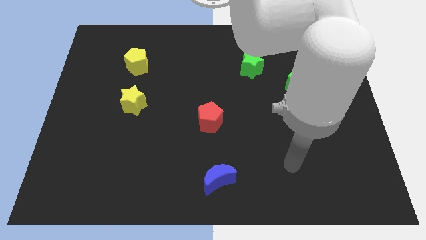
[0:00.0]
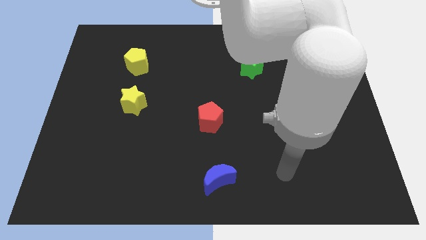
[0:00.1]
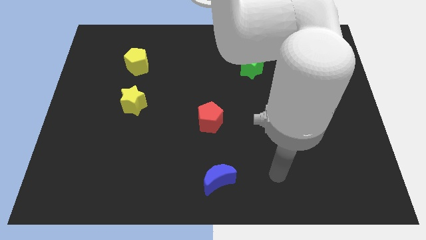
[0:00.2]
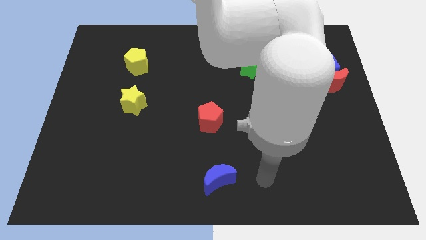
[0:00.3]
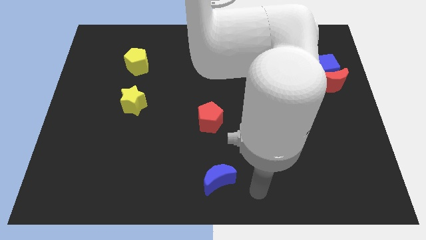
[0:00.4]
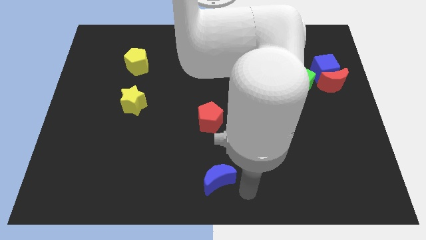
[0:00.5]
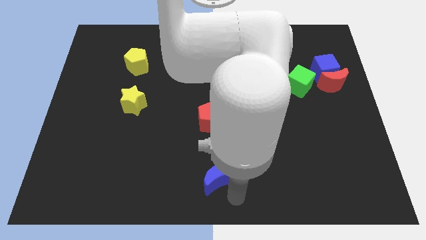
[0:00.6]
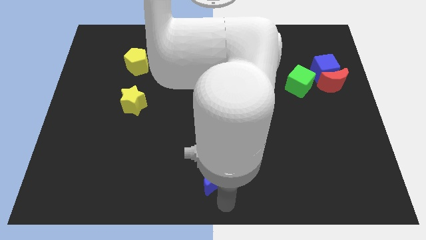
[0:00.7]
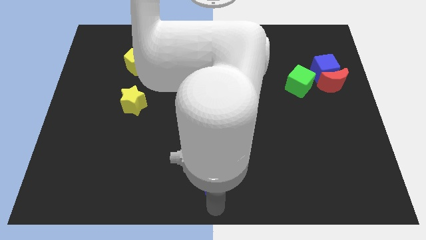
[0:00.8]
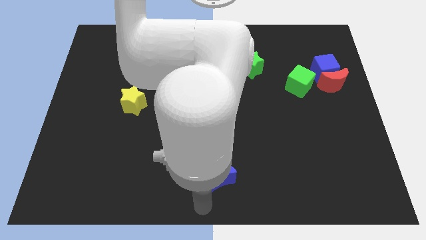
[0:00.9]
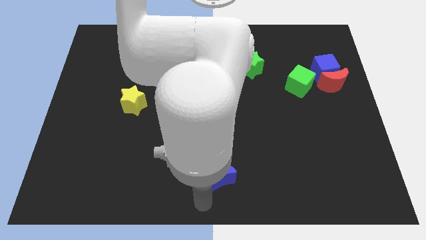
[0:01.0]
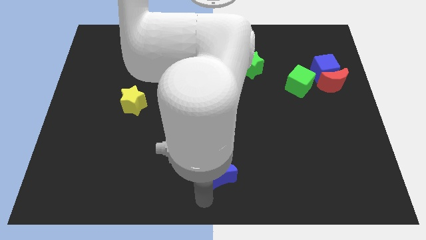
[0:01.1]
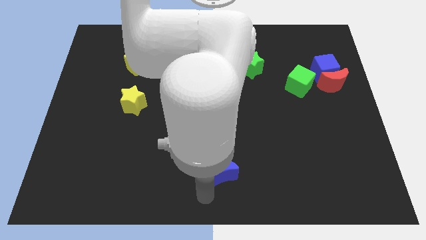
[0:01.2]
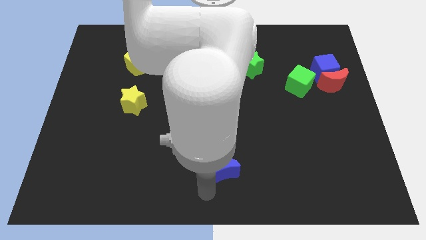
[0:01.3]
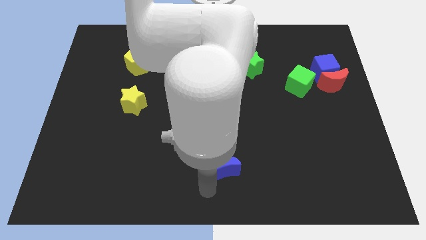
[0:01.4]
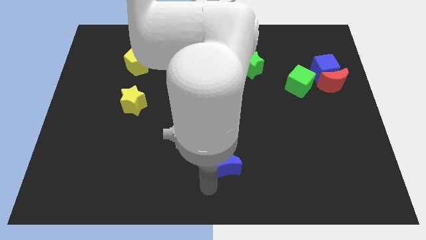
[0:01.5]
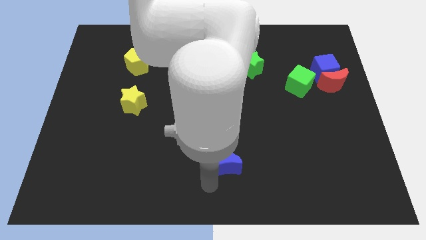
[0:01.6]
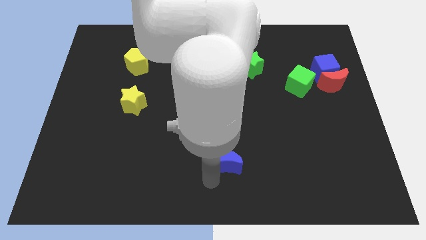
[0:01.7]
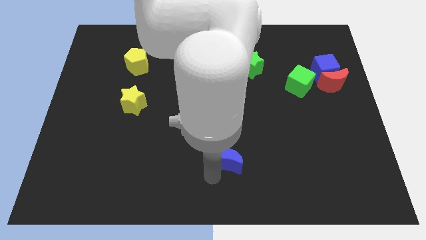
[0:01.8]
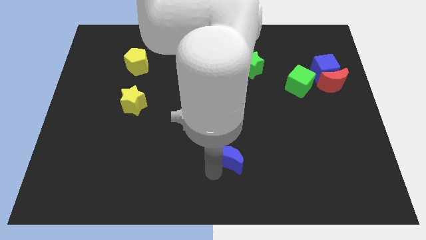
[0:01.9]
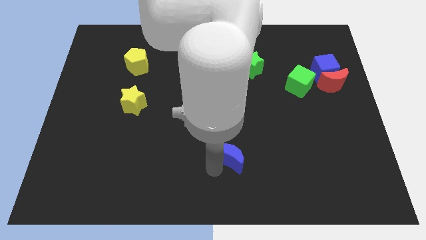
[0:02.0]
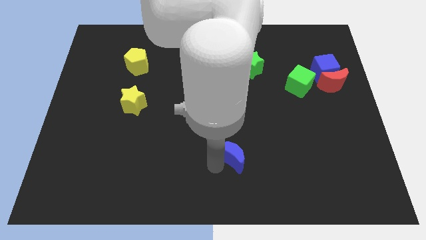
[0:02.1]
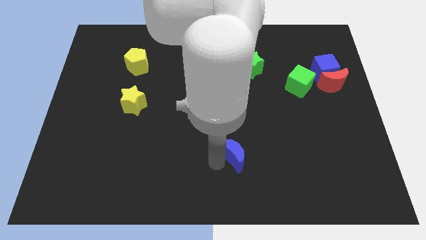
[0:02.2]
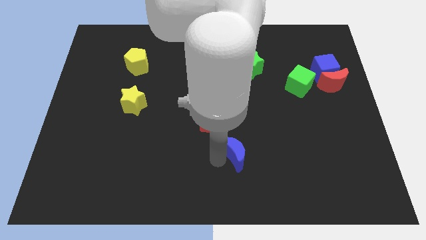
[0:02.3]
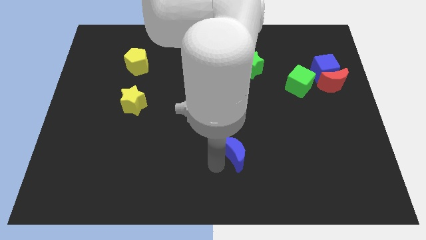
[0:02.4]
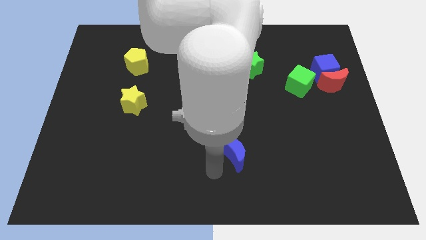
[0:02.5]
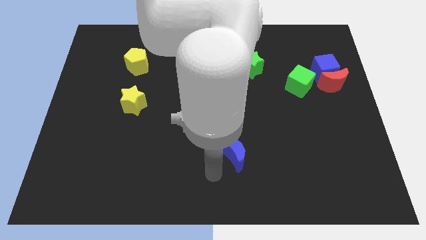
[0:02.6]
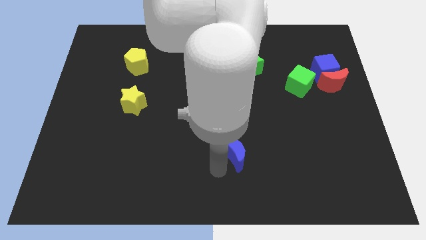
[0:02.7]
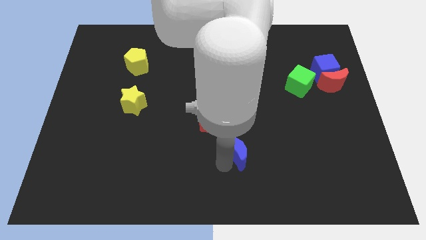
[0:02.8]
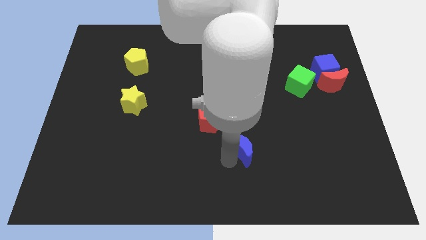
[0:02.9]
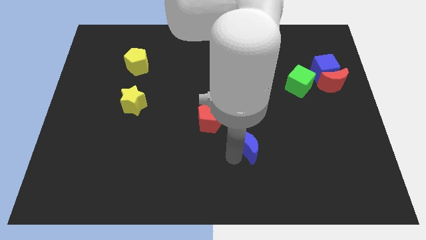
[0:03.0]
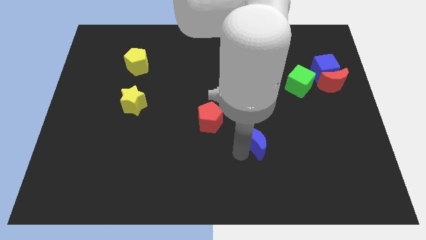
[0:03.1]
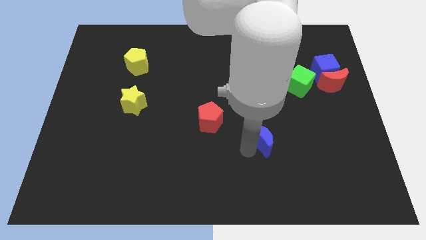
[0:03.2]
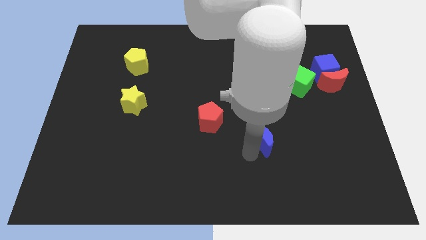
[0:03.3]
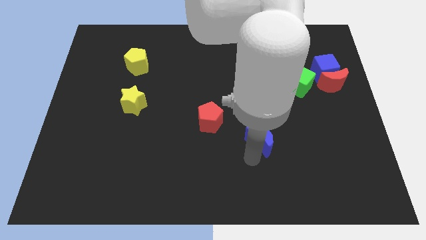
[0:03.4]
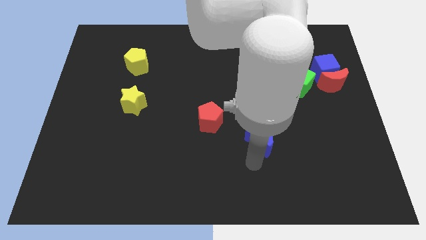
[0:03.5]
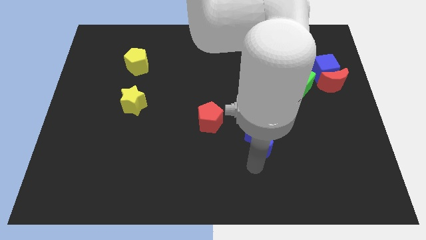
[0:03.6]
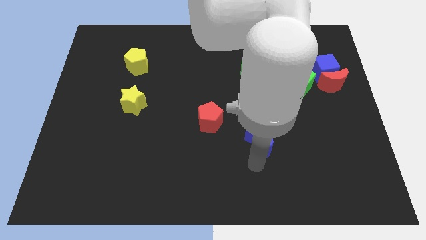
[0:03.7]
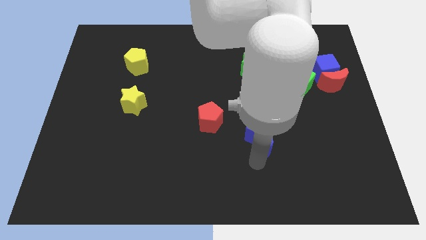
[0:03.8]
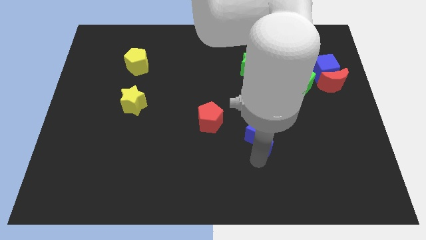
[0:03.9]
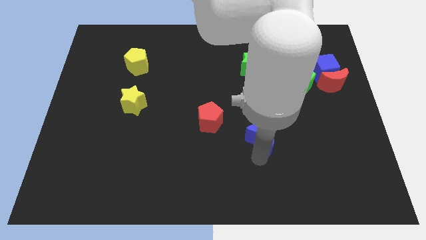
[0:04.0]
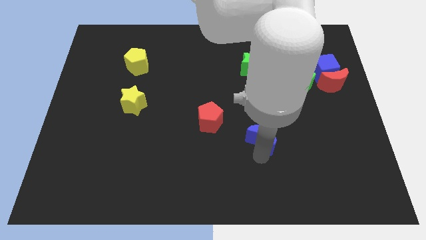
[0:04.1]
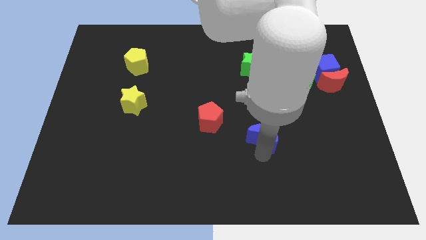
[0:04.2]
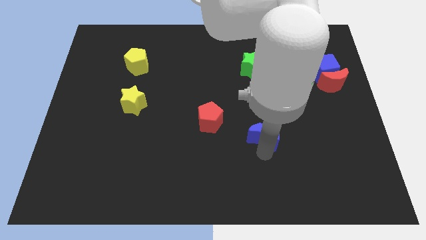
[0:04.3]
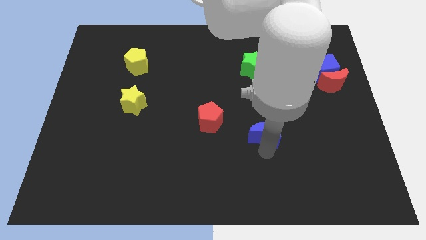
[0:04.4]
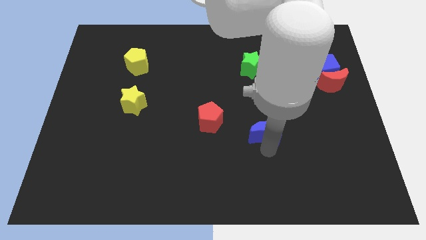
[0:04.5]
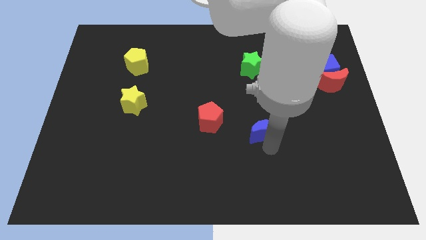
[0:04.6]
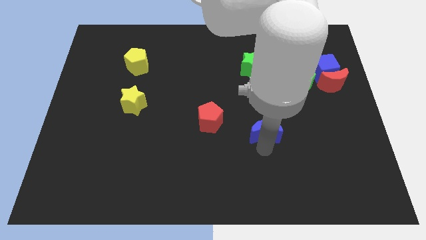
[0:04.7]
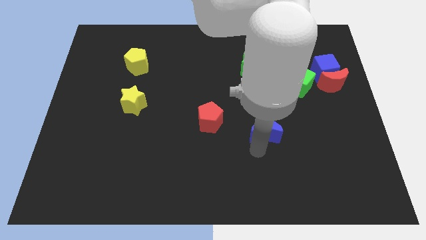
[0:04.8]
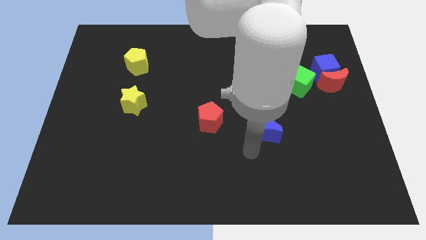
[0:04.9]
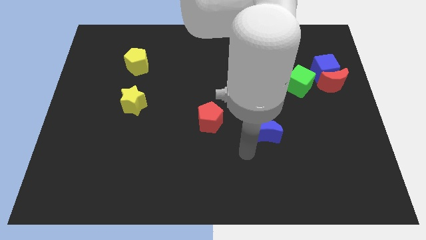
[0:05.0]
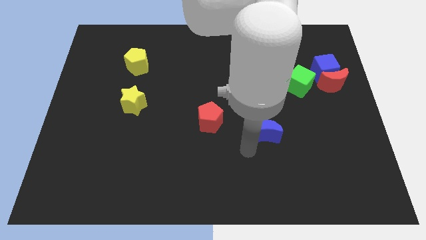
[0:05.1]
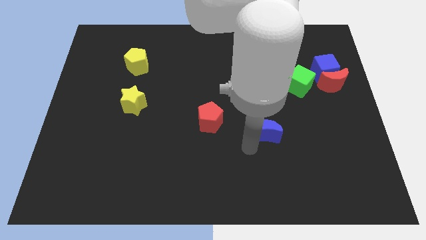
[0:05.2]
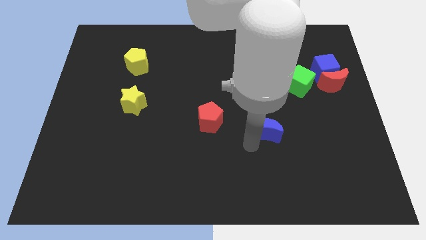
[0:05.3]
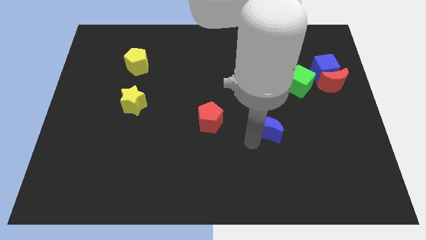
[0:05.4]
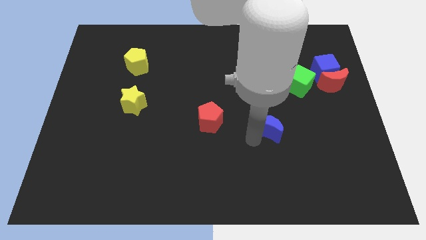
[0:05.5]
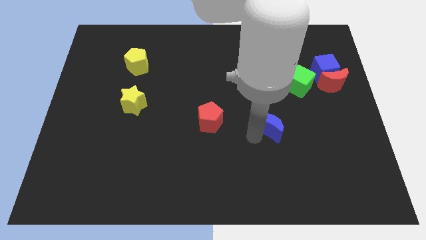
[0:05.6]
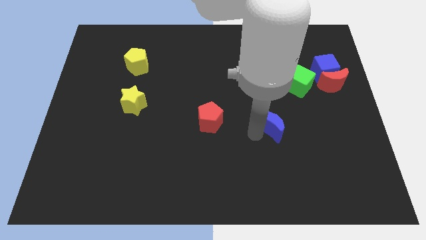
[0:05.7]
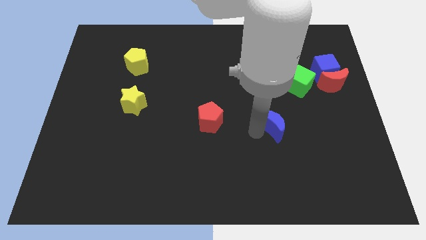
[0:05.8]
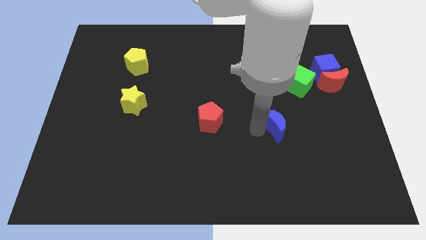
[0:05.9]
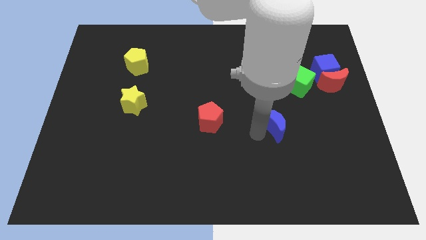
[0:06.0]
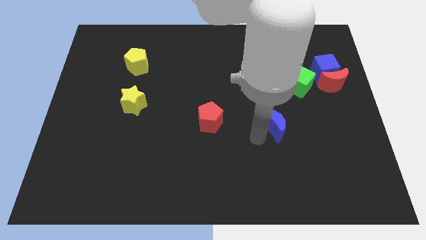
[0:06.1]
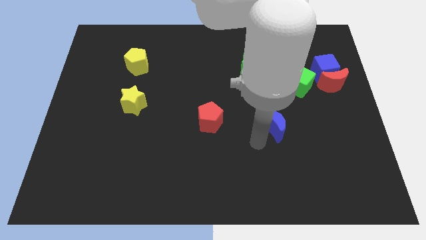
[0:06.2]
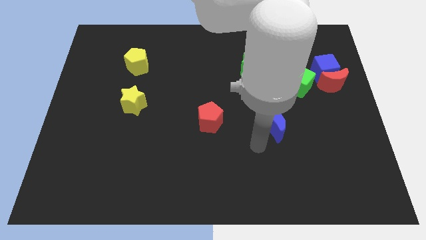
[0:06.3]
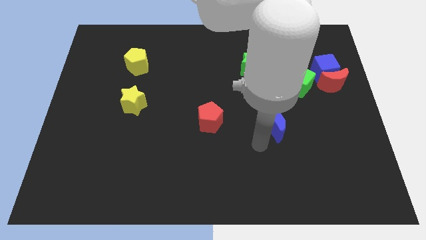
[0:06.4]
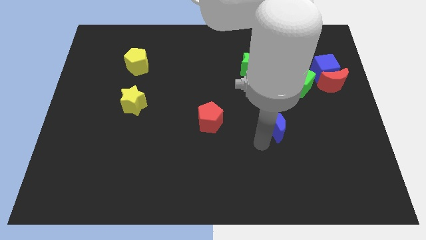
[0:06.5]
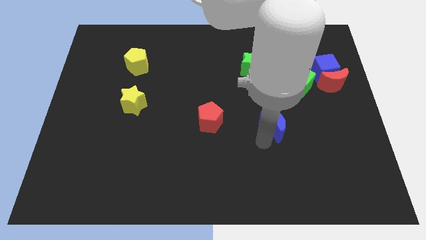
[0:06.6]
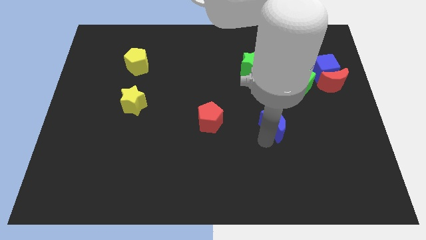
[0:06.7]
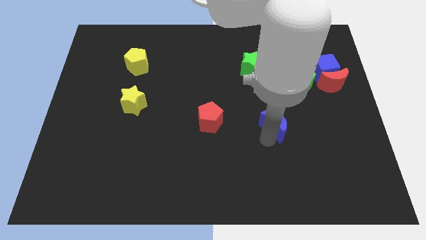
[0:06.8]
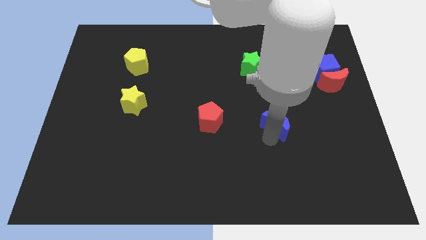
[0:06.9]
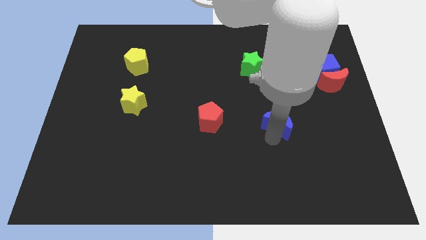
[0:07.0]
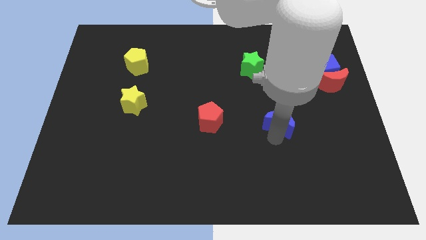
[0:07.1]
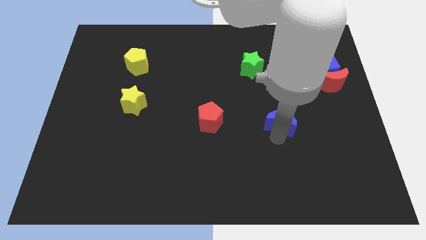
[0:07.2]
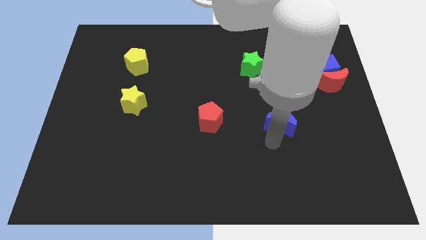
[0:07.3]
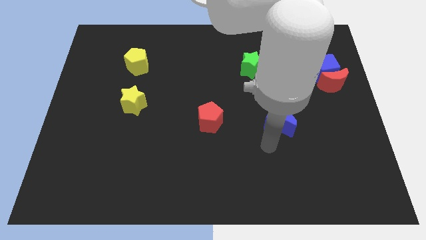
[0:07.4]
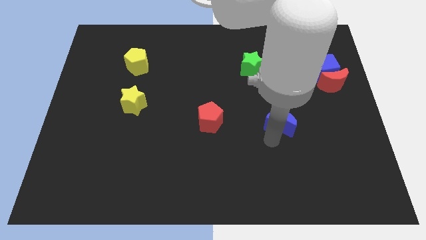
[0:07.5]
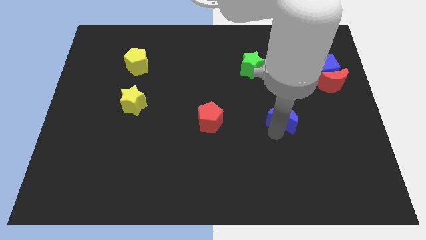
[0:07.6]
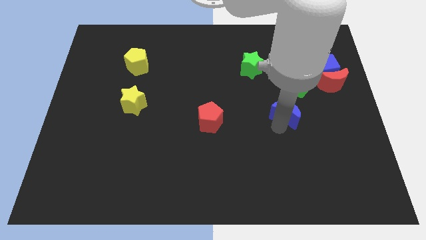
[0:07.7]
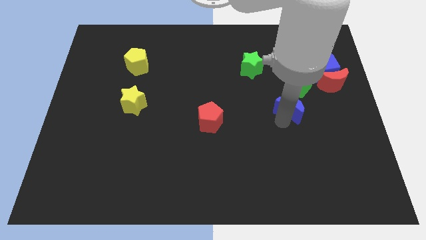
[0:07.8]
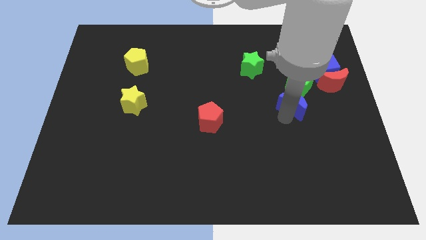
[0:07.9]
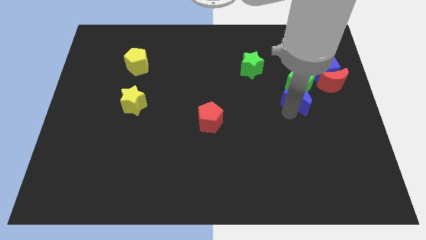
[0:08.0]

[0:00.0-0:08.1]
move the blue moon to the green cube
